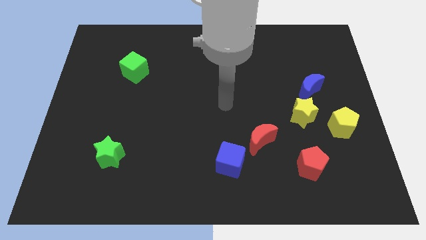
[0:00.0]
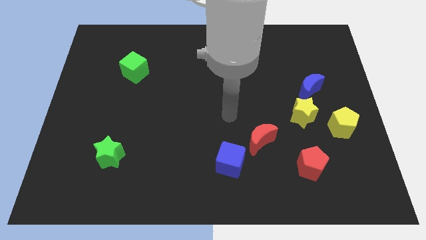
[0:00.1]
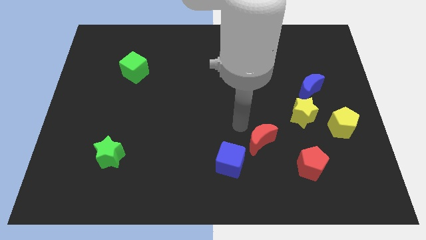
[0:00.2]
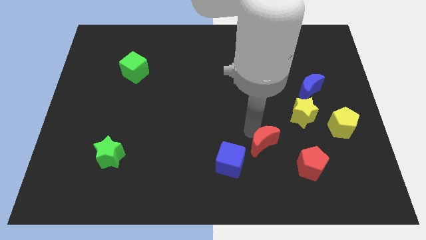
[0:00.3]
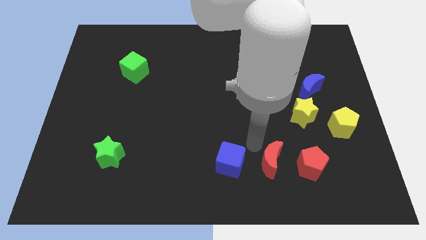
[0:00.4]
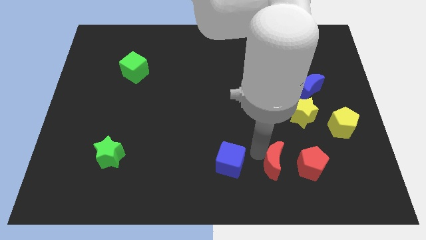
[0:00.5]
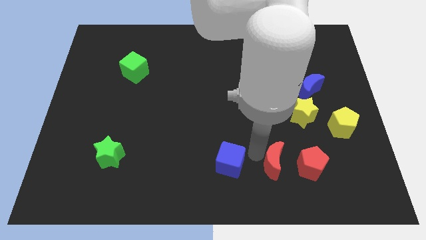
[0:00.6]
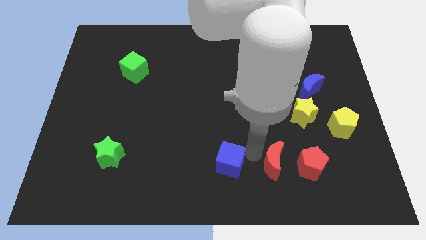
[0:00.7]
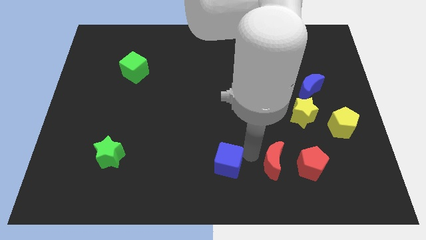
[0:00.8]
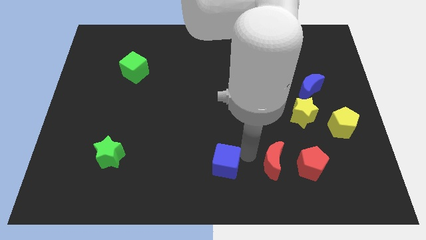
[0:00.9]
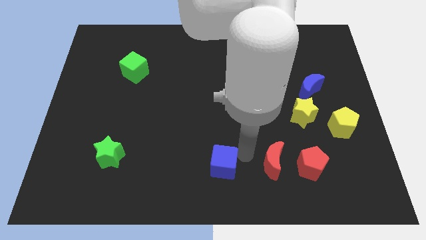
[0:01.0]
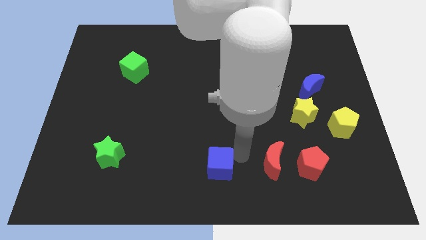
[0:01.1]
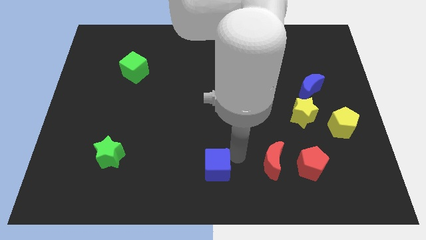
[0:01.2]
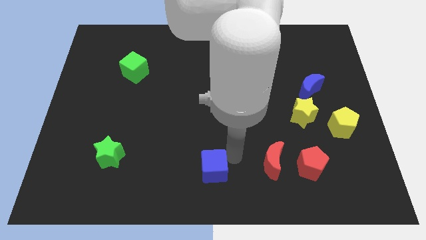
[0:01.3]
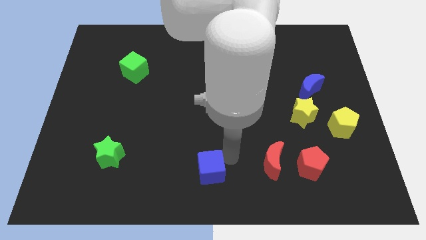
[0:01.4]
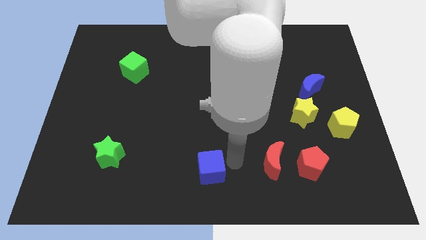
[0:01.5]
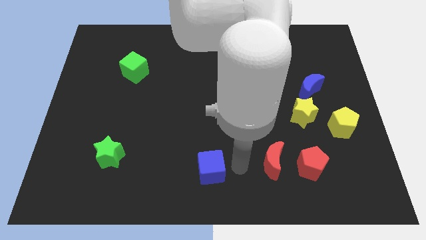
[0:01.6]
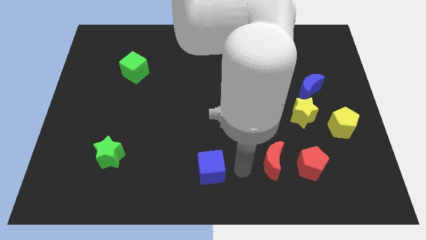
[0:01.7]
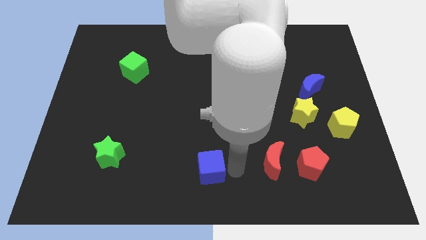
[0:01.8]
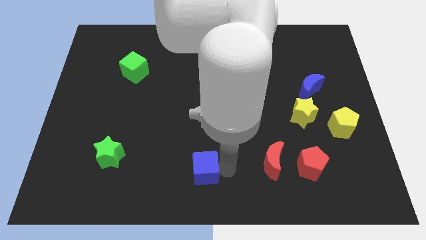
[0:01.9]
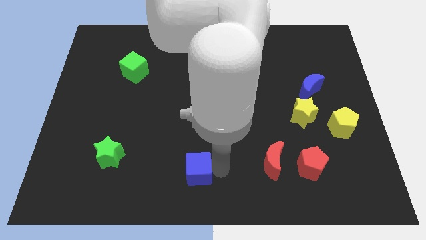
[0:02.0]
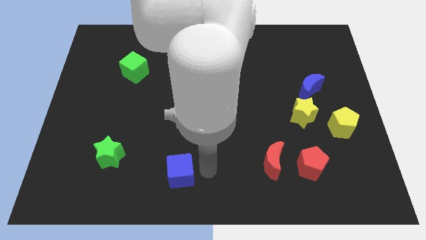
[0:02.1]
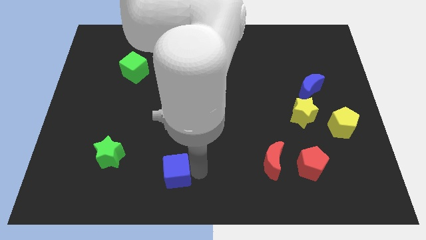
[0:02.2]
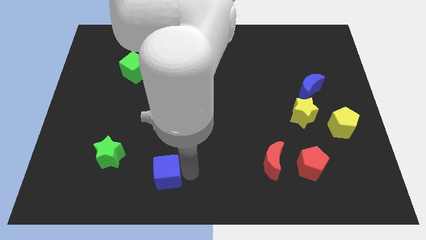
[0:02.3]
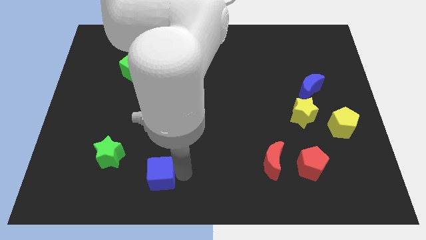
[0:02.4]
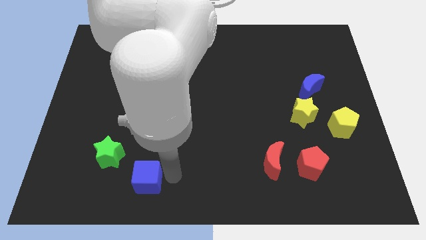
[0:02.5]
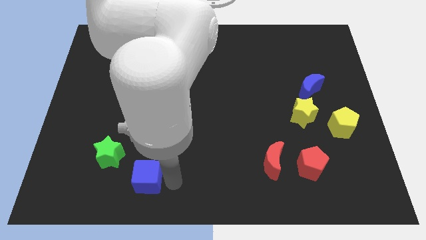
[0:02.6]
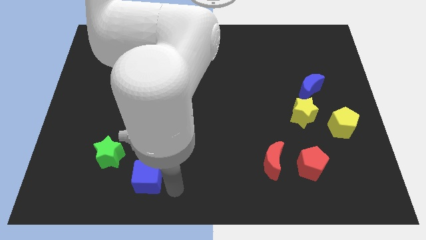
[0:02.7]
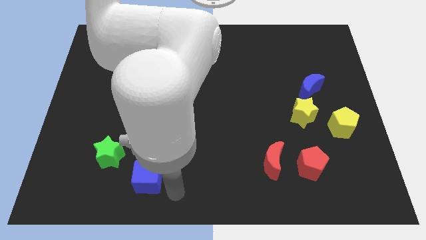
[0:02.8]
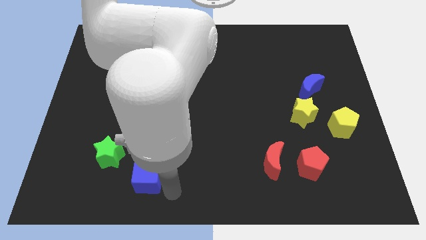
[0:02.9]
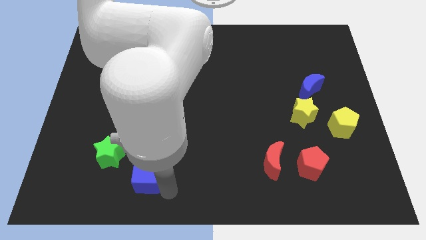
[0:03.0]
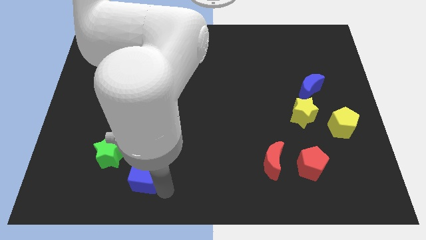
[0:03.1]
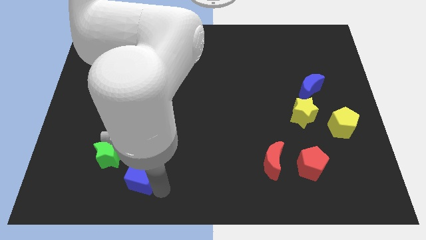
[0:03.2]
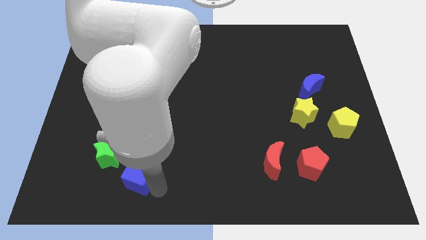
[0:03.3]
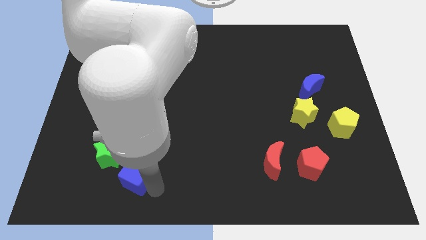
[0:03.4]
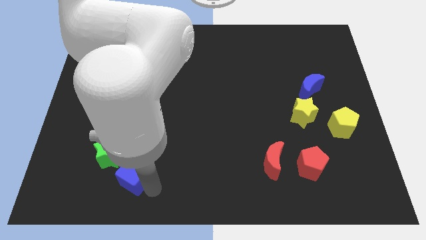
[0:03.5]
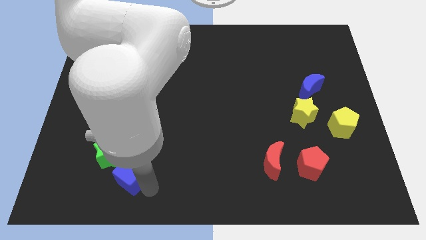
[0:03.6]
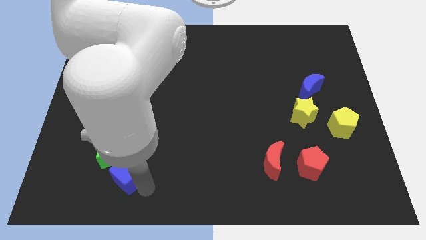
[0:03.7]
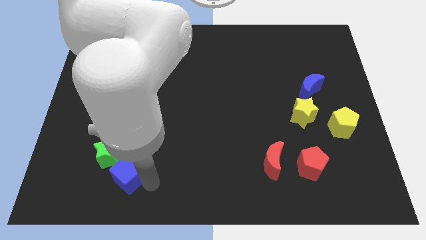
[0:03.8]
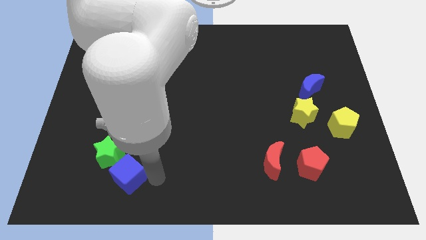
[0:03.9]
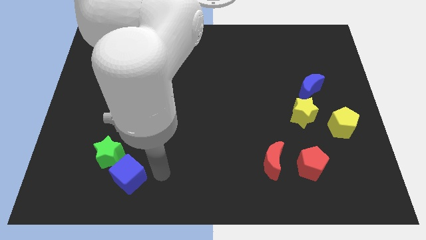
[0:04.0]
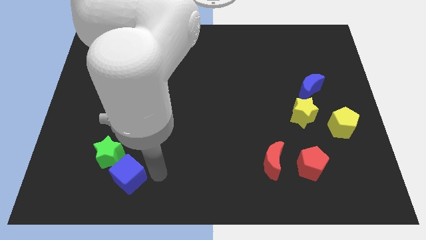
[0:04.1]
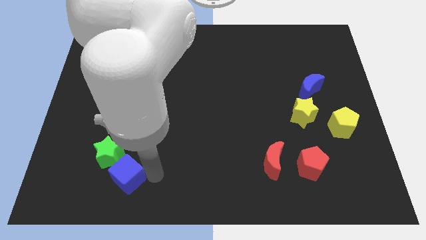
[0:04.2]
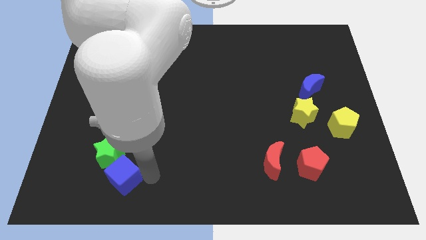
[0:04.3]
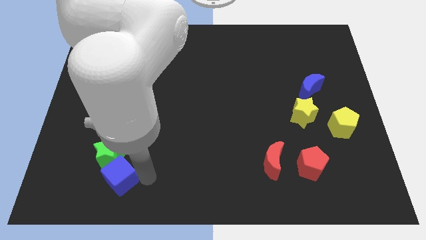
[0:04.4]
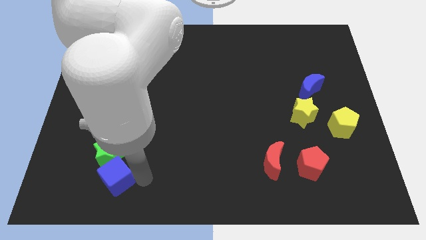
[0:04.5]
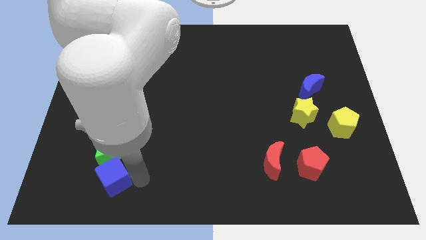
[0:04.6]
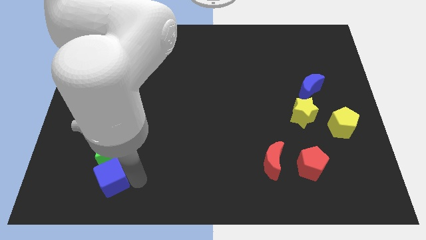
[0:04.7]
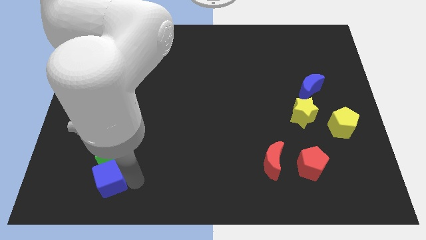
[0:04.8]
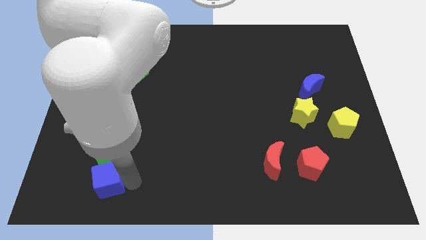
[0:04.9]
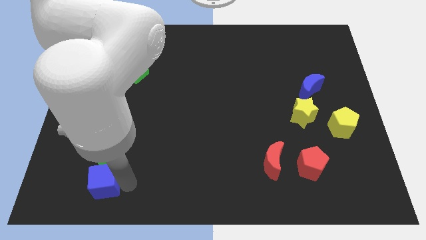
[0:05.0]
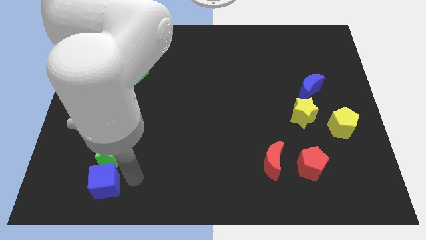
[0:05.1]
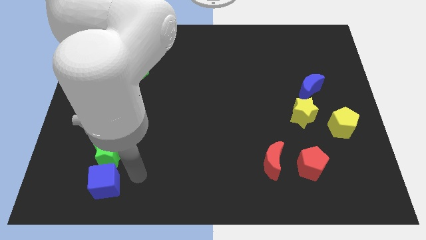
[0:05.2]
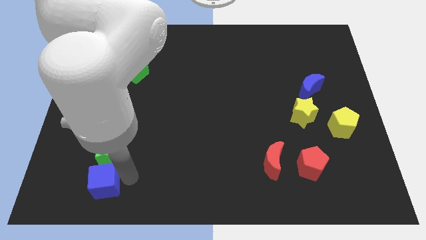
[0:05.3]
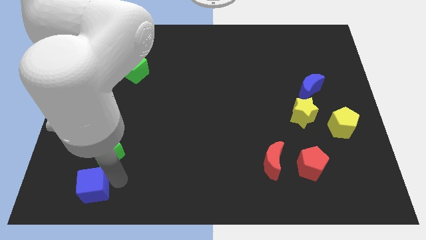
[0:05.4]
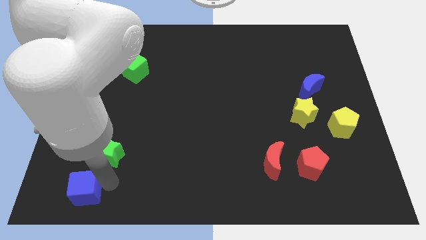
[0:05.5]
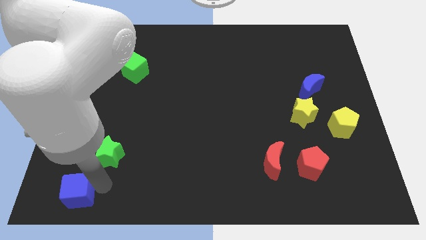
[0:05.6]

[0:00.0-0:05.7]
put the blue cube to the bottom left of the board

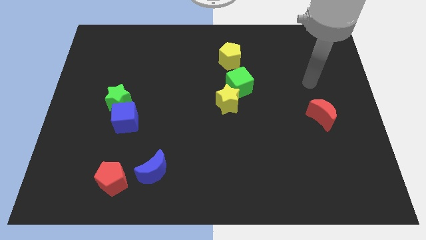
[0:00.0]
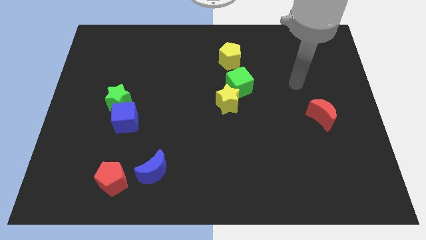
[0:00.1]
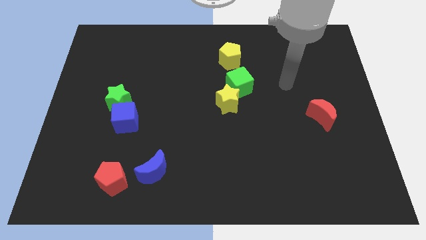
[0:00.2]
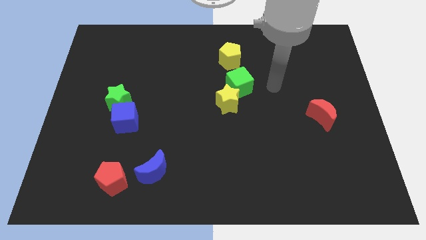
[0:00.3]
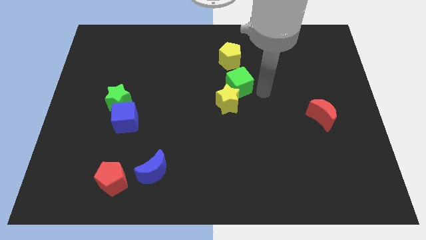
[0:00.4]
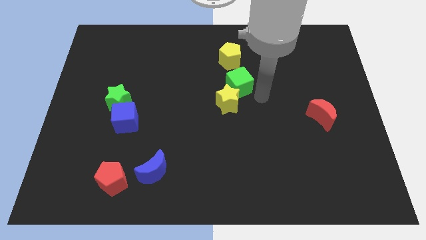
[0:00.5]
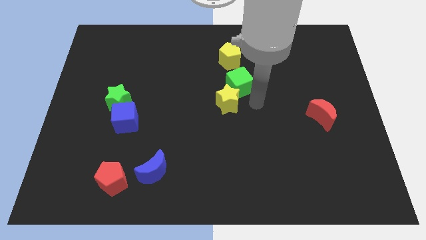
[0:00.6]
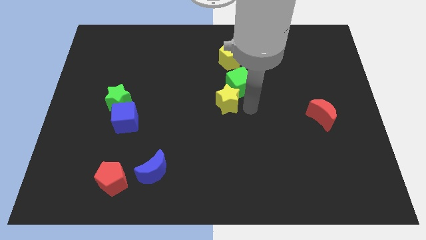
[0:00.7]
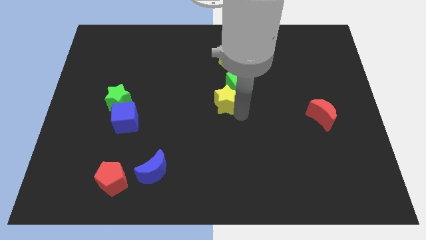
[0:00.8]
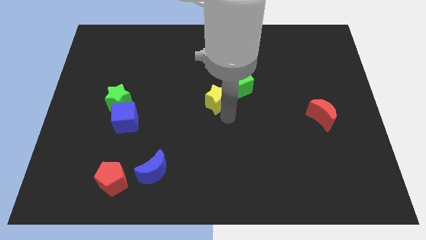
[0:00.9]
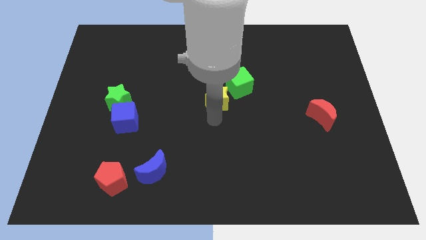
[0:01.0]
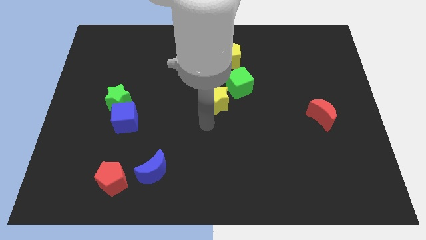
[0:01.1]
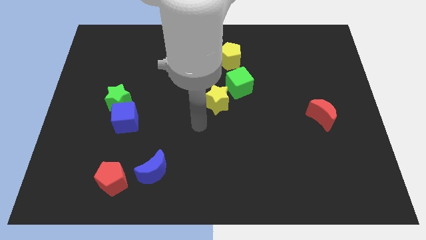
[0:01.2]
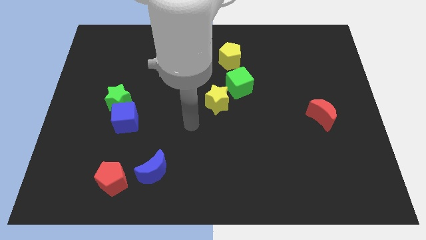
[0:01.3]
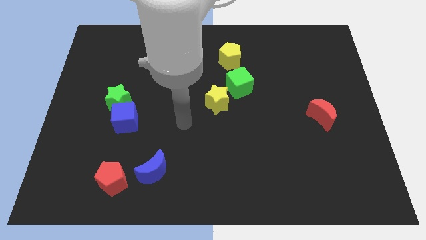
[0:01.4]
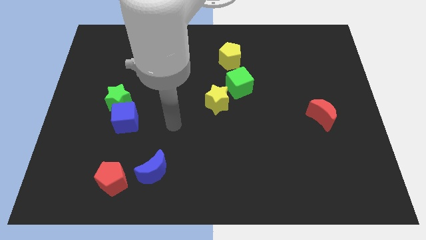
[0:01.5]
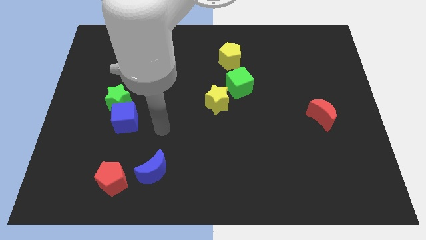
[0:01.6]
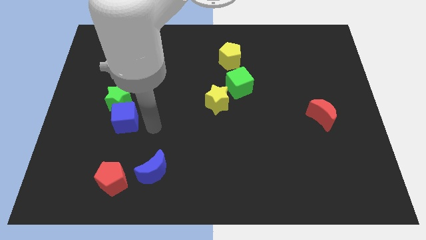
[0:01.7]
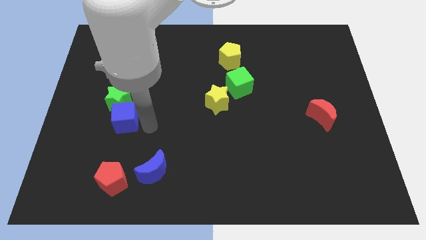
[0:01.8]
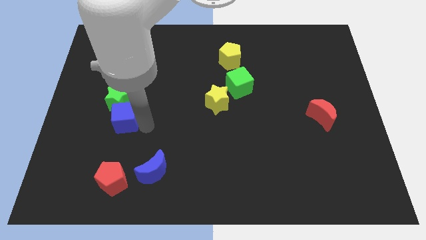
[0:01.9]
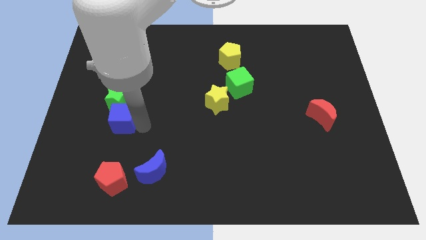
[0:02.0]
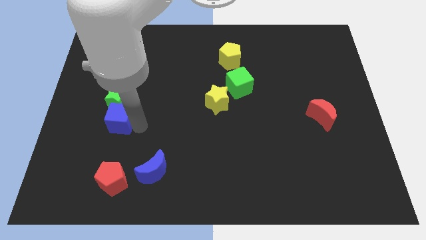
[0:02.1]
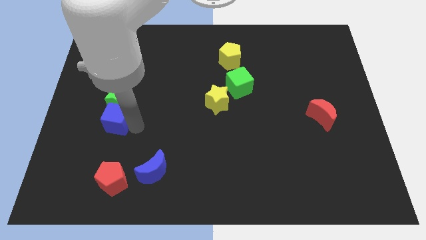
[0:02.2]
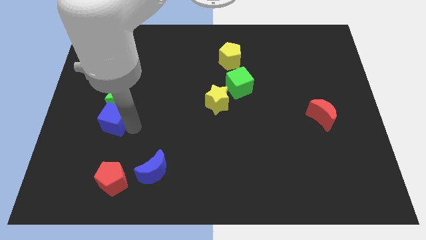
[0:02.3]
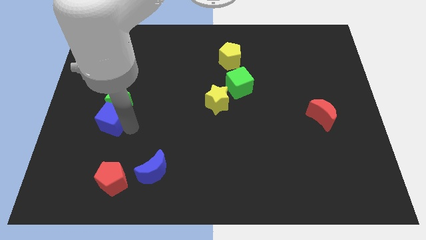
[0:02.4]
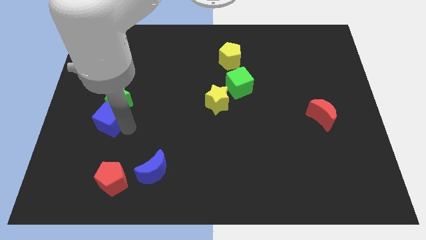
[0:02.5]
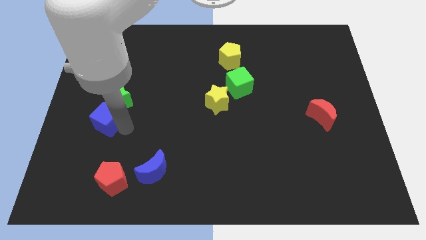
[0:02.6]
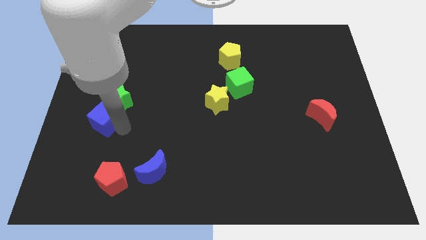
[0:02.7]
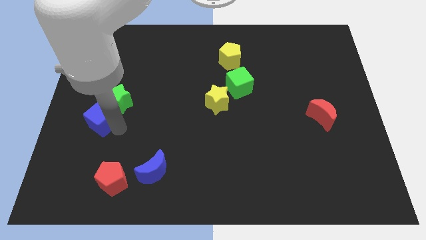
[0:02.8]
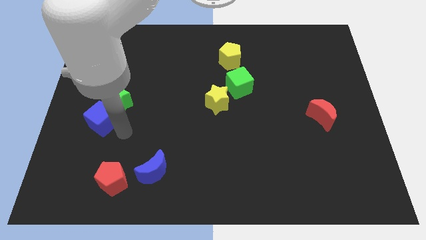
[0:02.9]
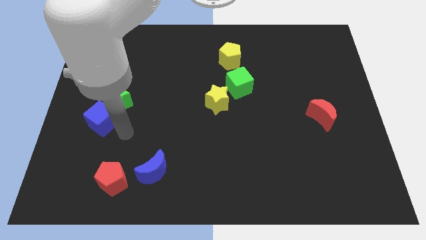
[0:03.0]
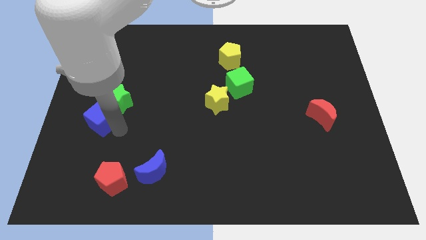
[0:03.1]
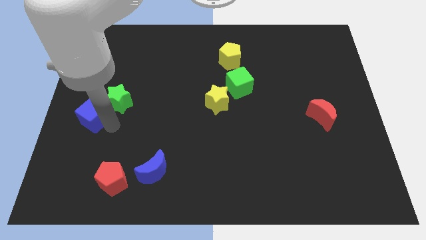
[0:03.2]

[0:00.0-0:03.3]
slide the blue cube to the left side of the board
